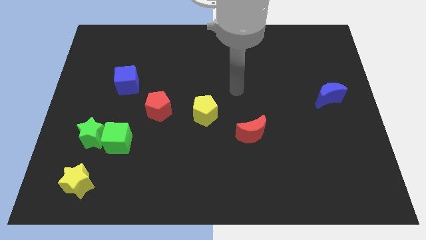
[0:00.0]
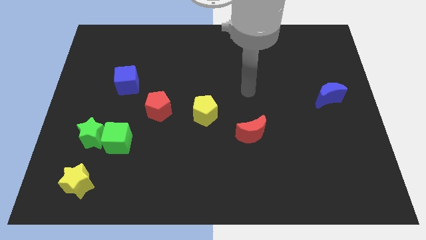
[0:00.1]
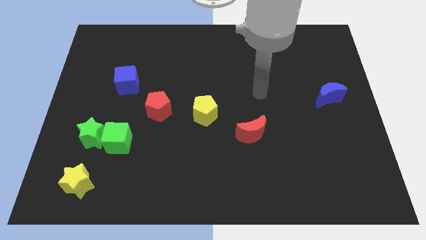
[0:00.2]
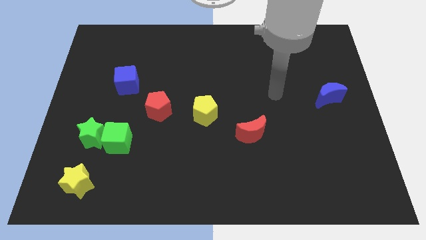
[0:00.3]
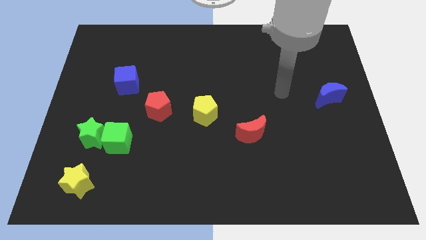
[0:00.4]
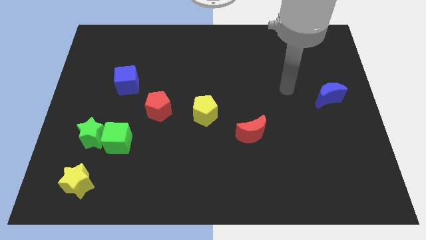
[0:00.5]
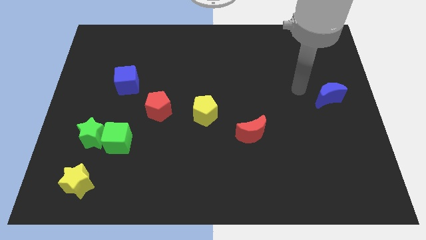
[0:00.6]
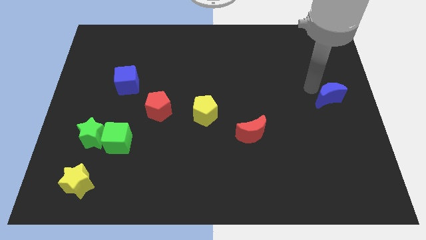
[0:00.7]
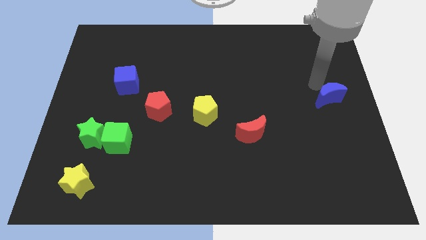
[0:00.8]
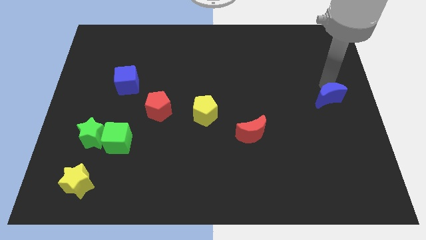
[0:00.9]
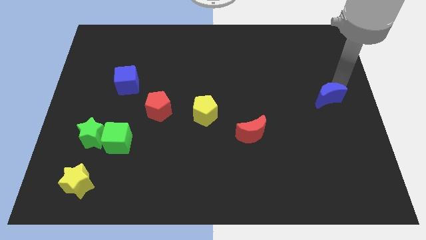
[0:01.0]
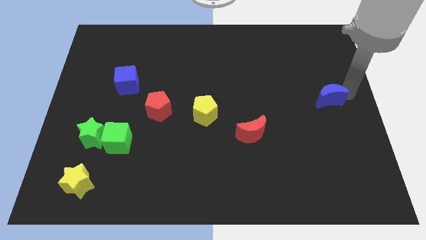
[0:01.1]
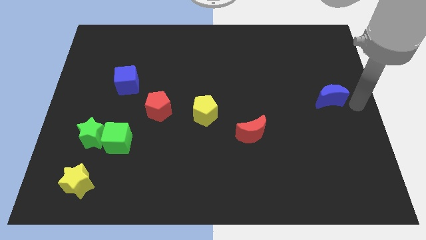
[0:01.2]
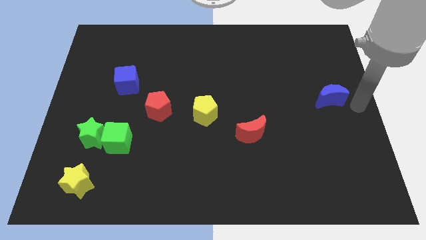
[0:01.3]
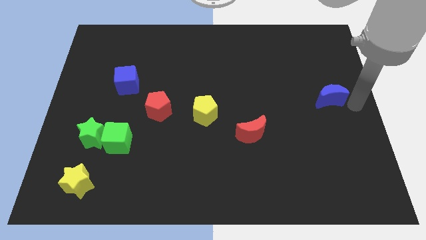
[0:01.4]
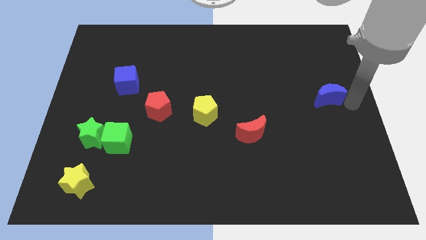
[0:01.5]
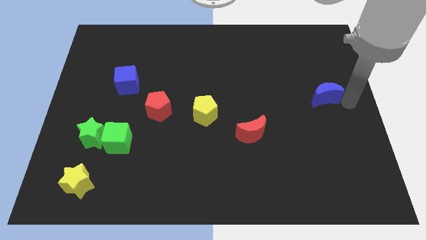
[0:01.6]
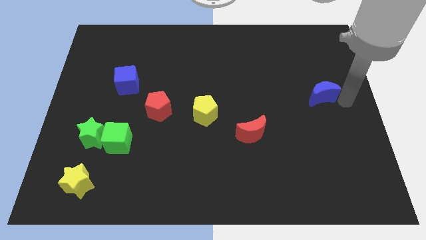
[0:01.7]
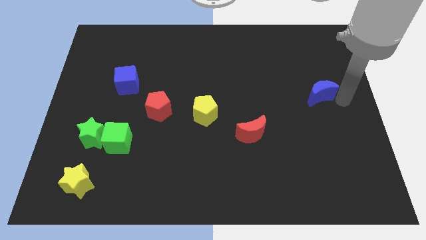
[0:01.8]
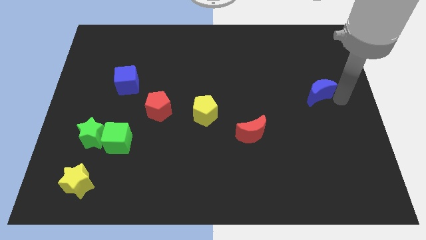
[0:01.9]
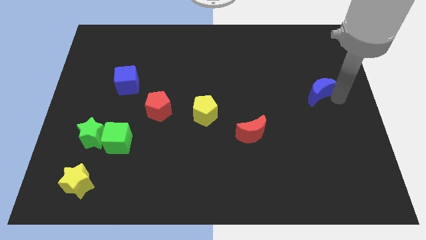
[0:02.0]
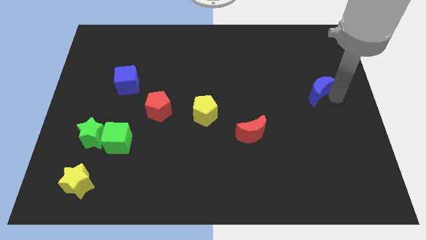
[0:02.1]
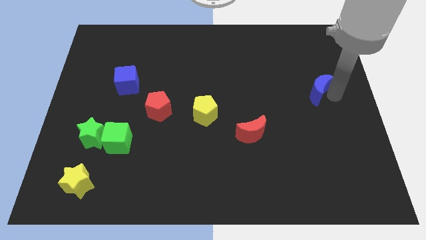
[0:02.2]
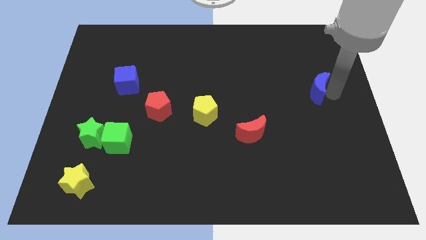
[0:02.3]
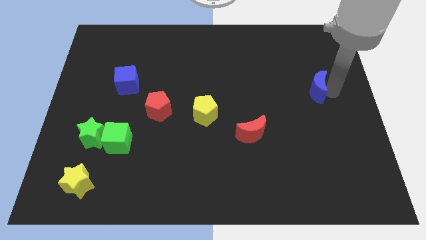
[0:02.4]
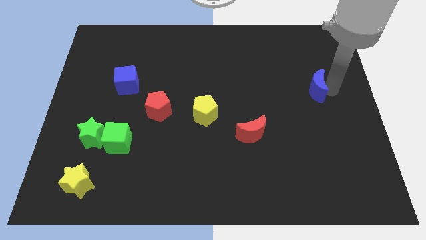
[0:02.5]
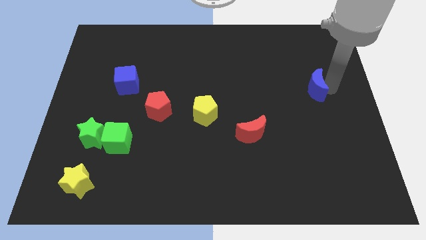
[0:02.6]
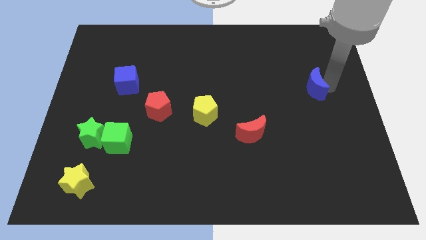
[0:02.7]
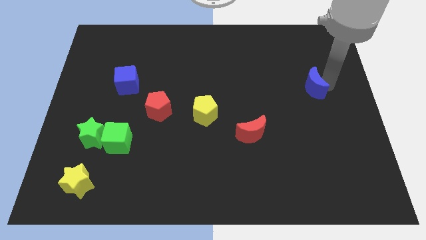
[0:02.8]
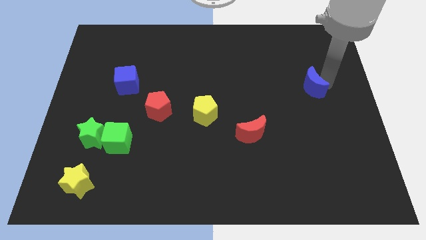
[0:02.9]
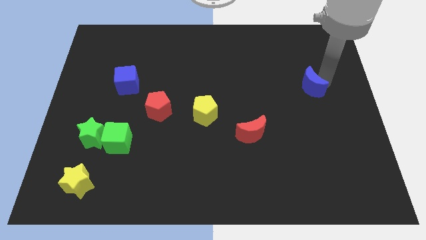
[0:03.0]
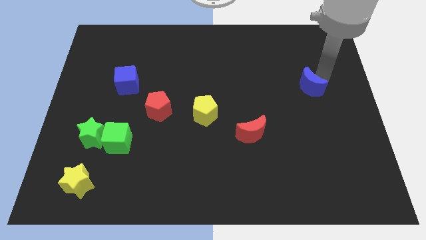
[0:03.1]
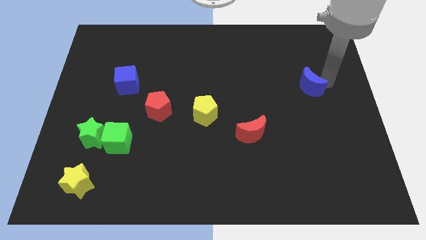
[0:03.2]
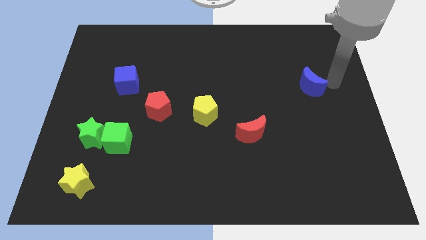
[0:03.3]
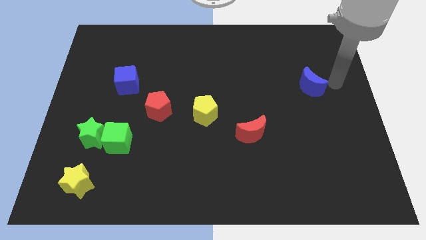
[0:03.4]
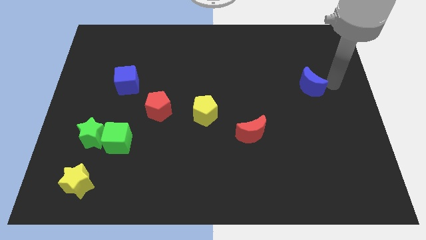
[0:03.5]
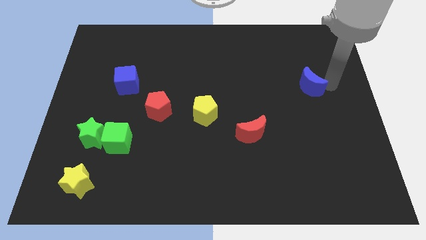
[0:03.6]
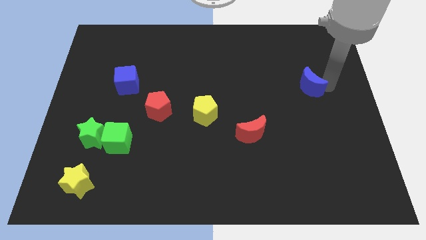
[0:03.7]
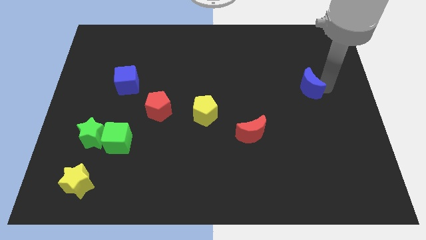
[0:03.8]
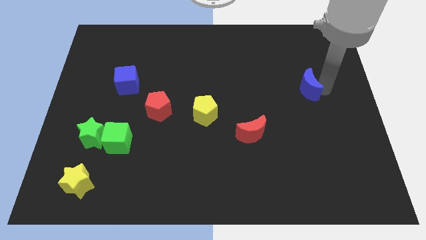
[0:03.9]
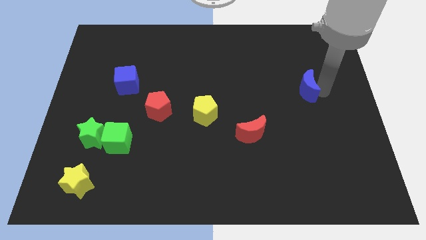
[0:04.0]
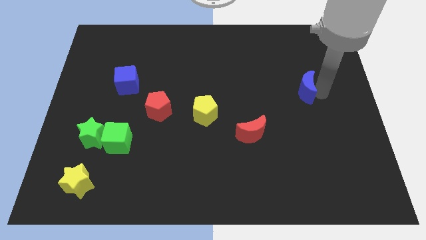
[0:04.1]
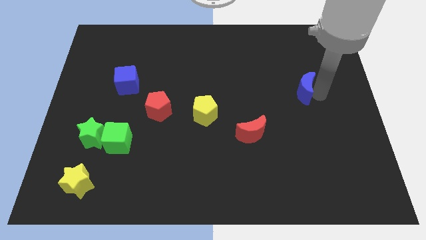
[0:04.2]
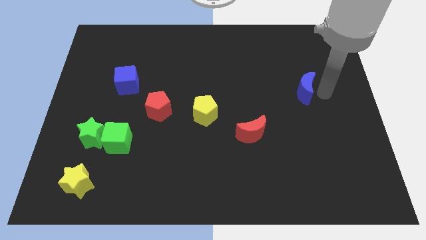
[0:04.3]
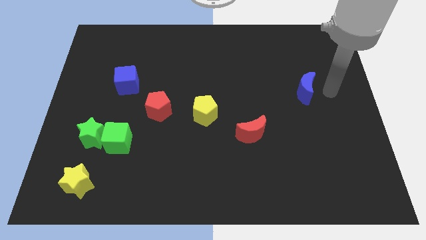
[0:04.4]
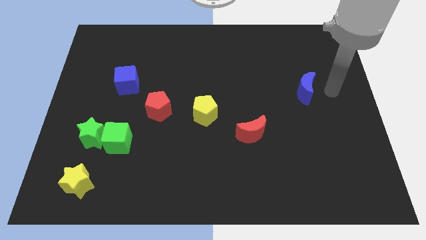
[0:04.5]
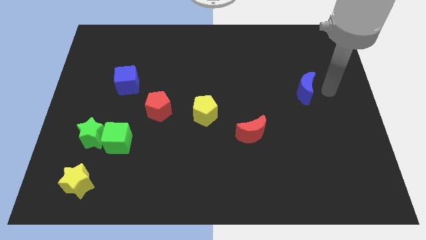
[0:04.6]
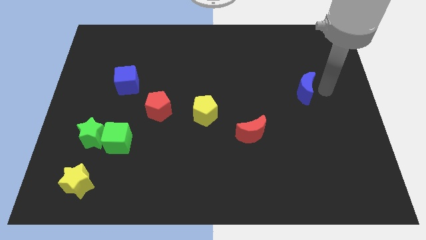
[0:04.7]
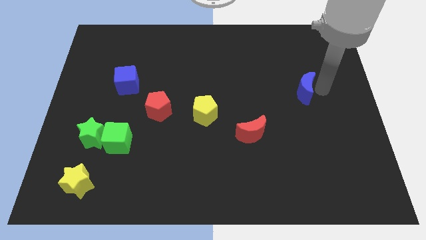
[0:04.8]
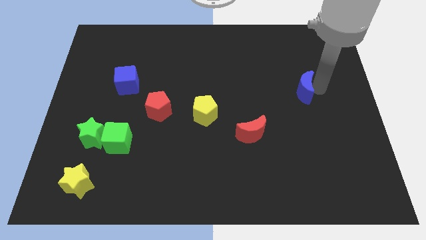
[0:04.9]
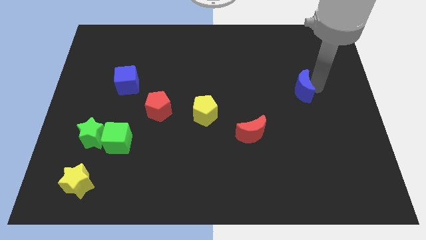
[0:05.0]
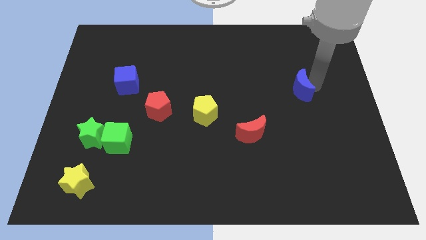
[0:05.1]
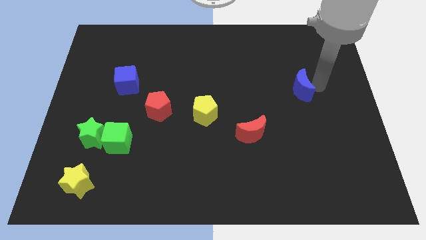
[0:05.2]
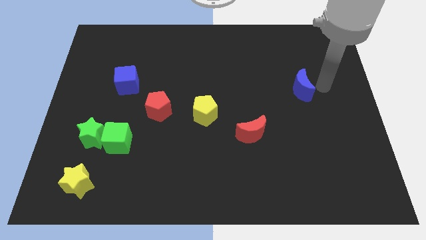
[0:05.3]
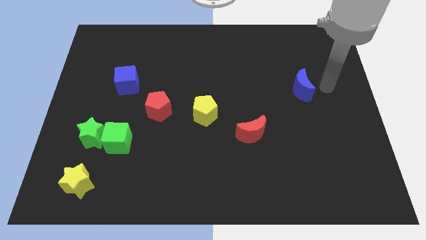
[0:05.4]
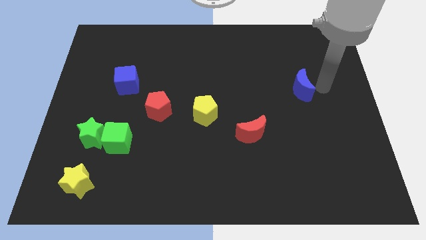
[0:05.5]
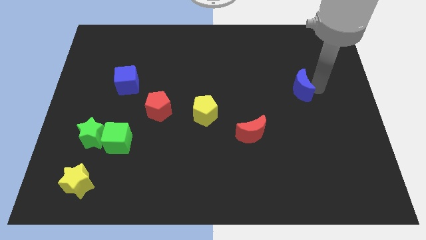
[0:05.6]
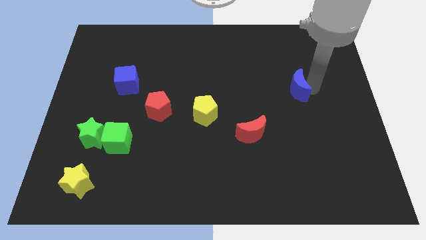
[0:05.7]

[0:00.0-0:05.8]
slightly push the blue moon to the left

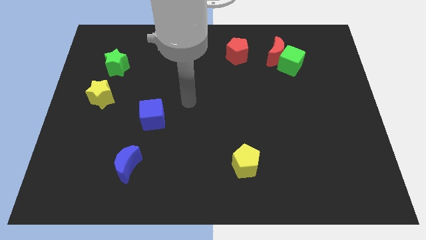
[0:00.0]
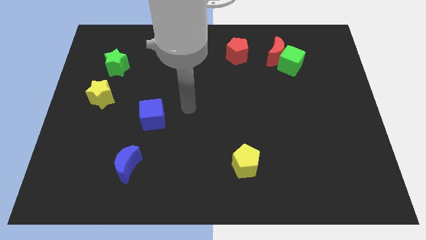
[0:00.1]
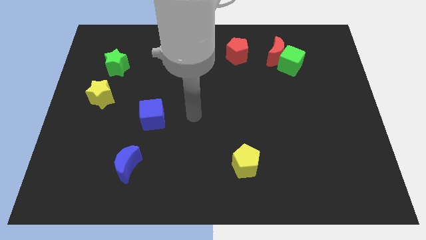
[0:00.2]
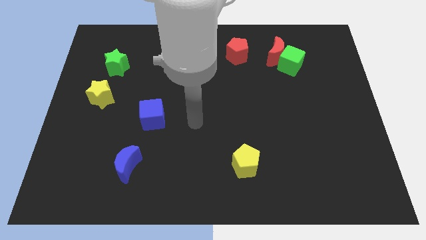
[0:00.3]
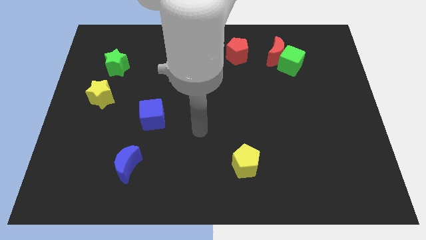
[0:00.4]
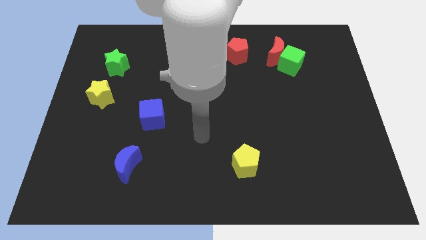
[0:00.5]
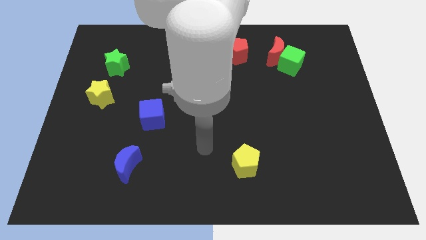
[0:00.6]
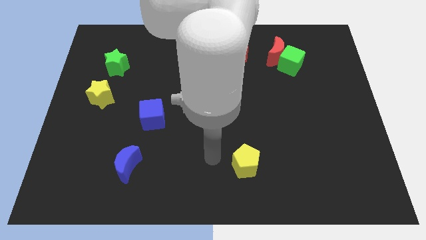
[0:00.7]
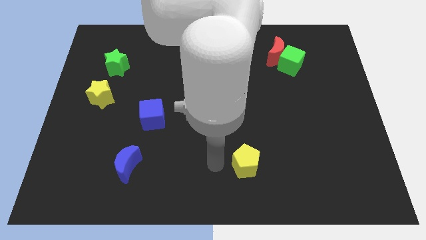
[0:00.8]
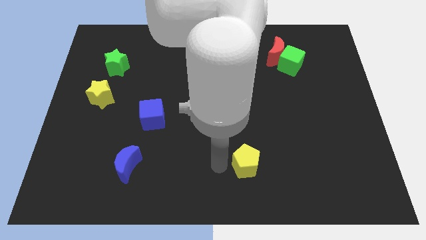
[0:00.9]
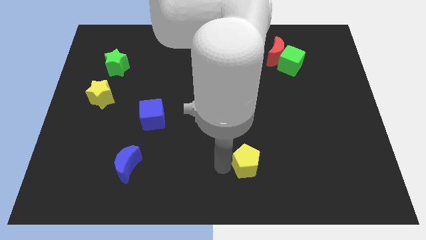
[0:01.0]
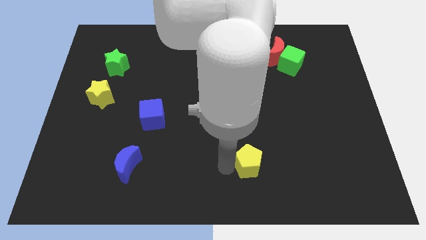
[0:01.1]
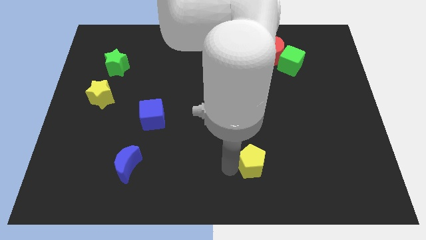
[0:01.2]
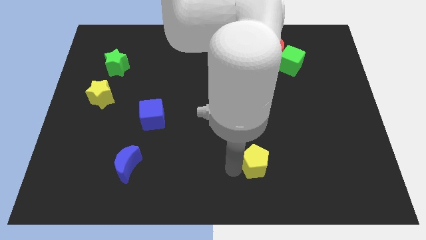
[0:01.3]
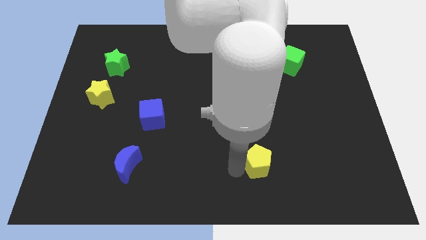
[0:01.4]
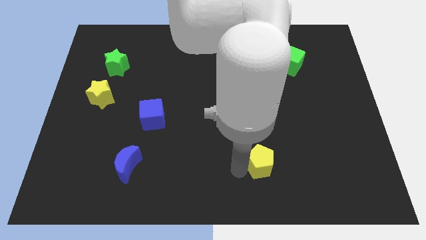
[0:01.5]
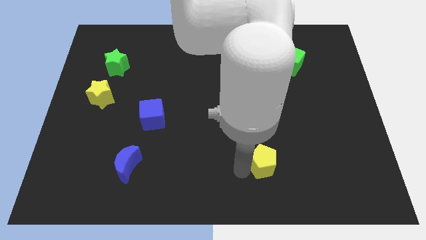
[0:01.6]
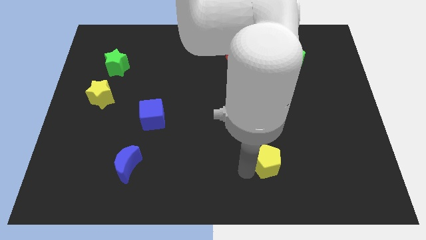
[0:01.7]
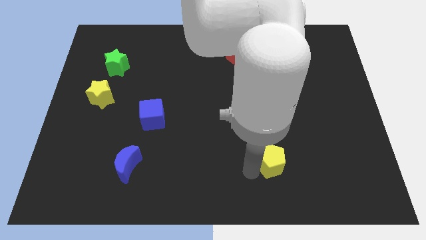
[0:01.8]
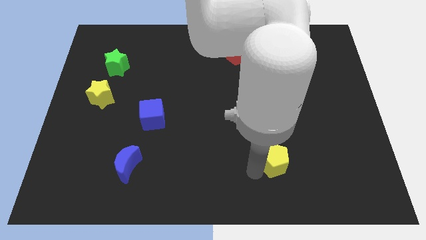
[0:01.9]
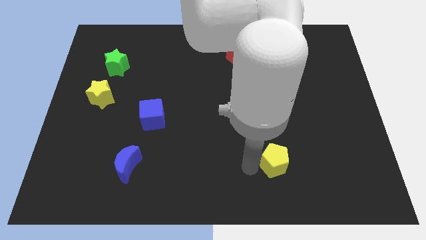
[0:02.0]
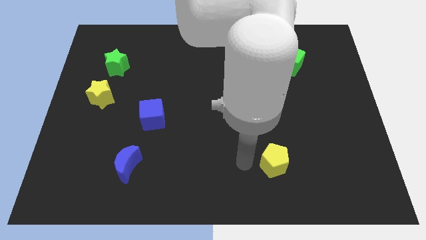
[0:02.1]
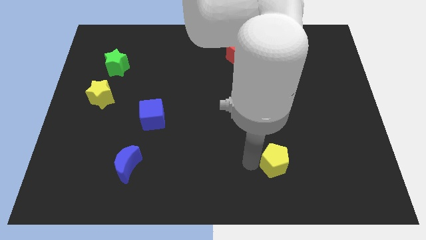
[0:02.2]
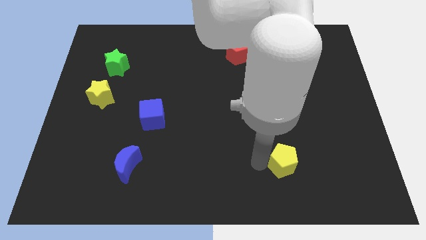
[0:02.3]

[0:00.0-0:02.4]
push the yellow pentagon to the right slightly
